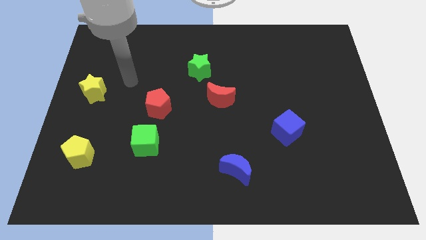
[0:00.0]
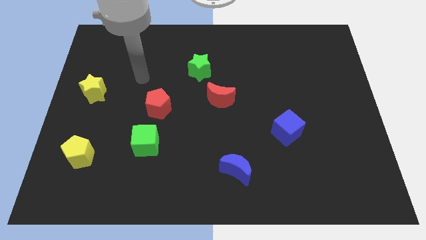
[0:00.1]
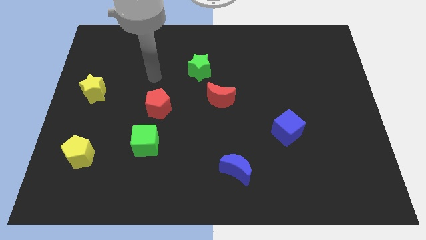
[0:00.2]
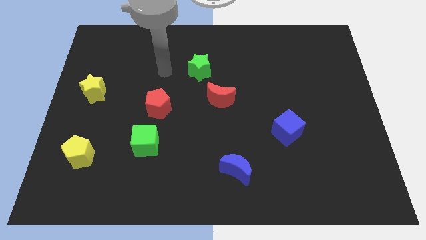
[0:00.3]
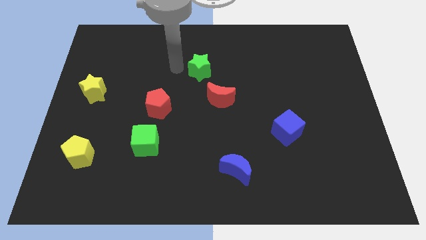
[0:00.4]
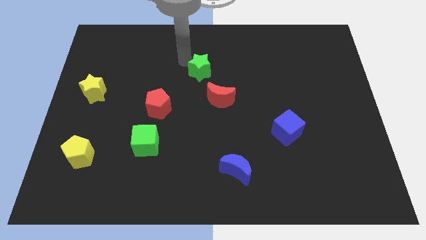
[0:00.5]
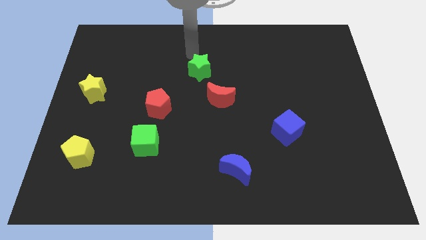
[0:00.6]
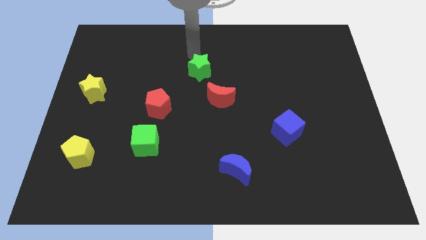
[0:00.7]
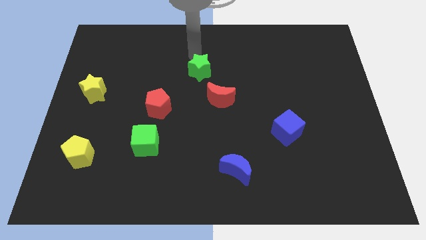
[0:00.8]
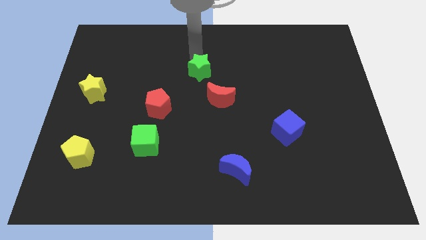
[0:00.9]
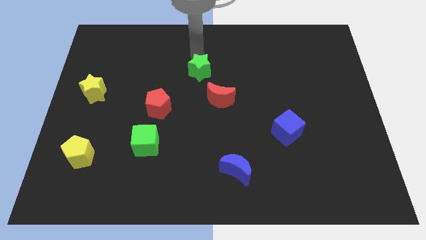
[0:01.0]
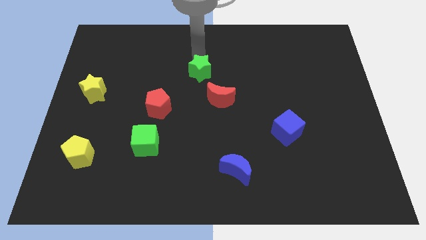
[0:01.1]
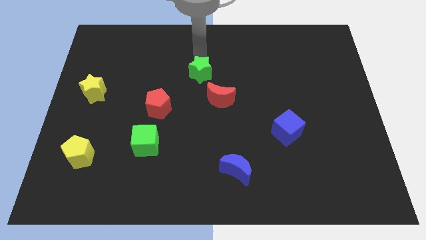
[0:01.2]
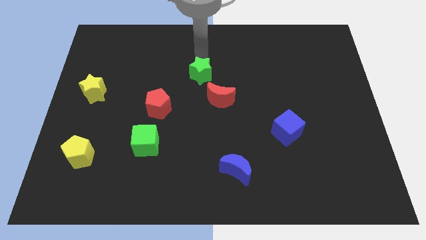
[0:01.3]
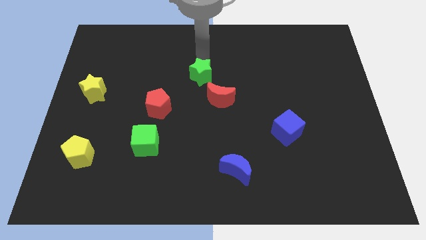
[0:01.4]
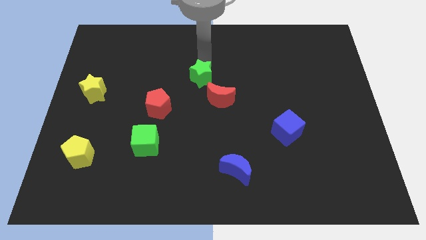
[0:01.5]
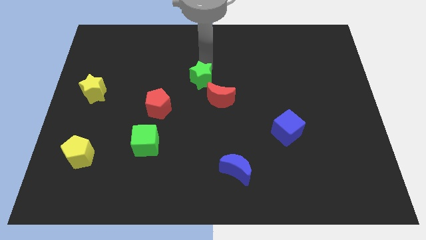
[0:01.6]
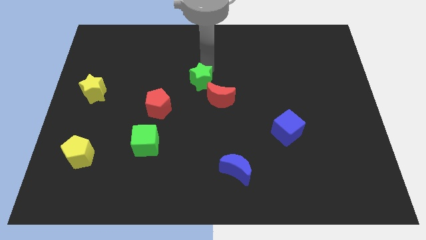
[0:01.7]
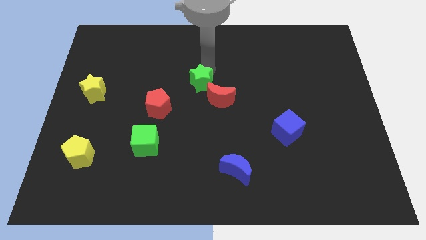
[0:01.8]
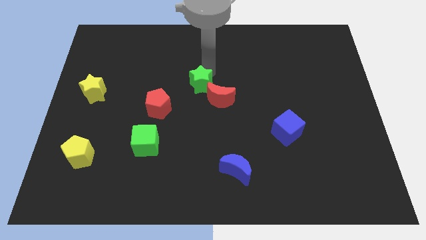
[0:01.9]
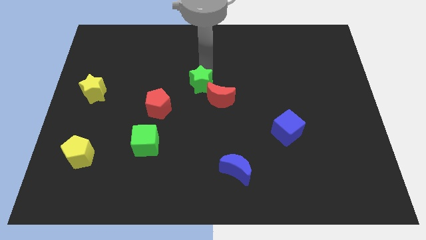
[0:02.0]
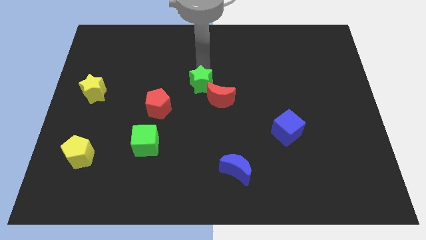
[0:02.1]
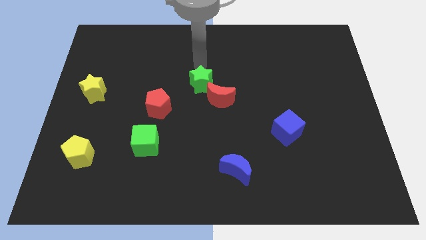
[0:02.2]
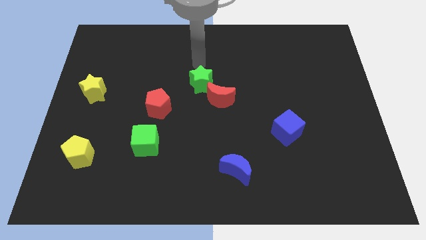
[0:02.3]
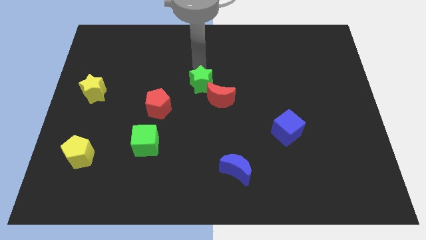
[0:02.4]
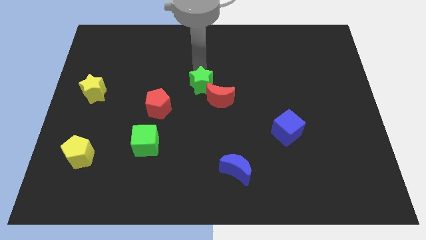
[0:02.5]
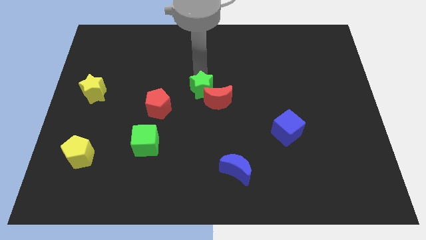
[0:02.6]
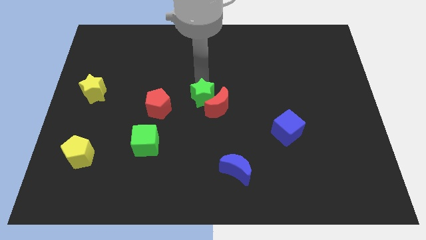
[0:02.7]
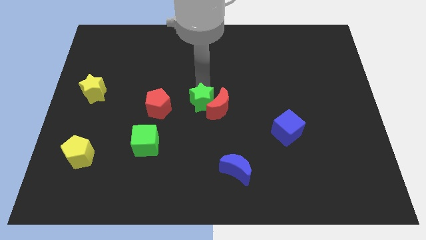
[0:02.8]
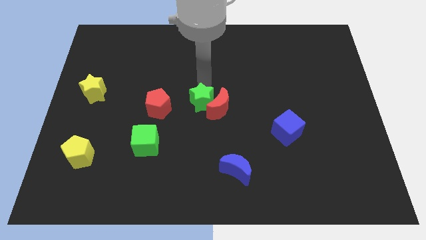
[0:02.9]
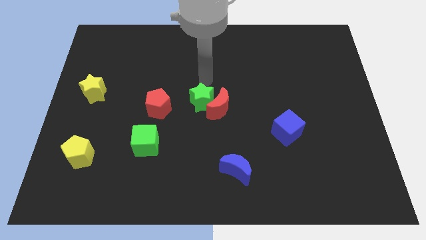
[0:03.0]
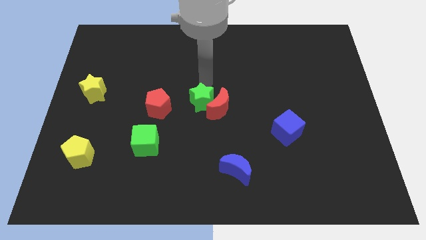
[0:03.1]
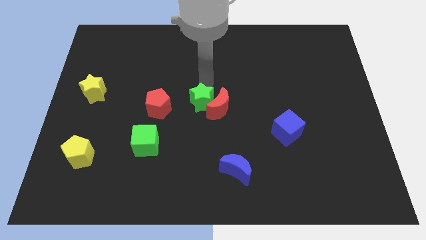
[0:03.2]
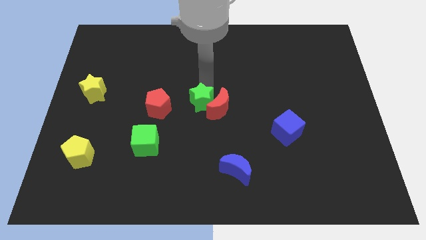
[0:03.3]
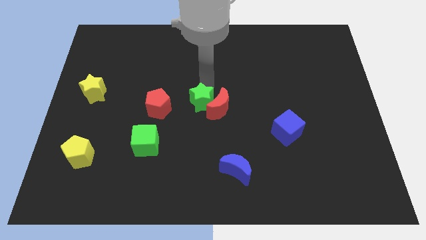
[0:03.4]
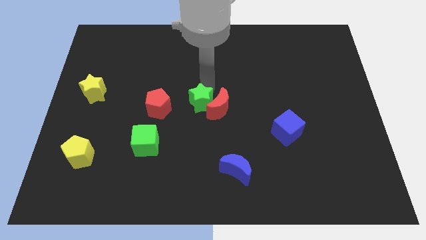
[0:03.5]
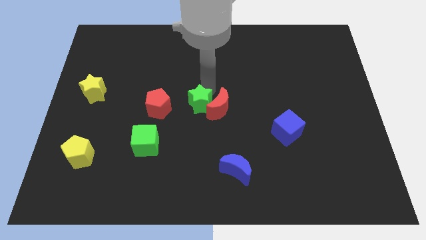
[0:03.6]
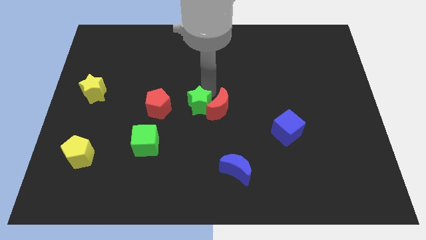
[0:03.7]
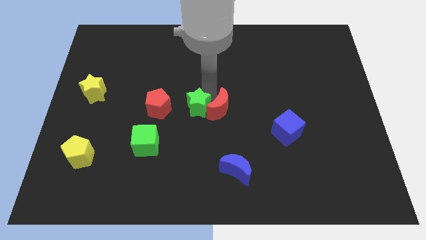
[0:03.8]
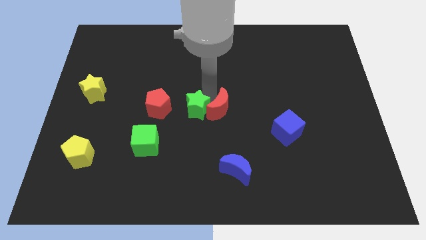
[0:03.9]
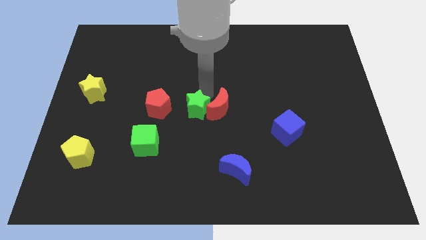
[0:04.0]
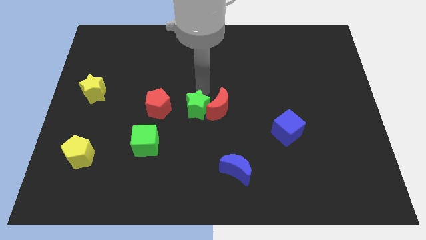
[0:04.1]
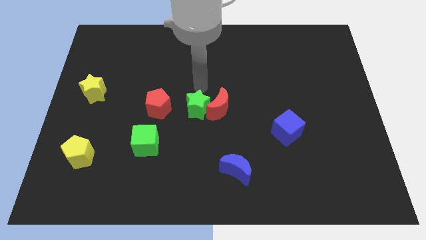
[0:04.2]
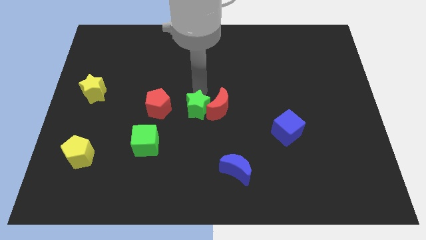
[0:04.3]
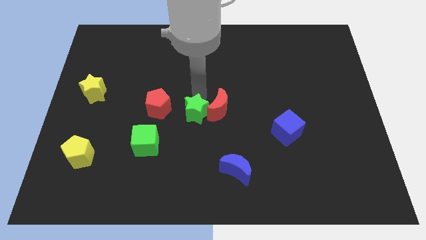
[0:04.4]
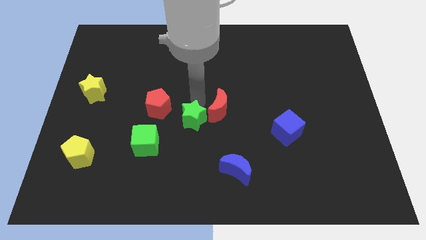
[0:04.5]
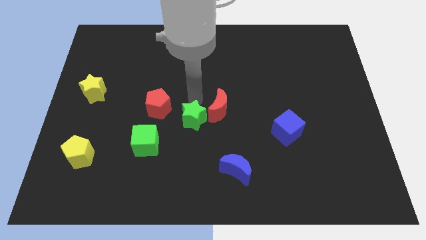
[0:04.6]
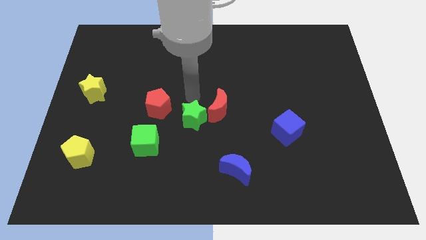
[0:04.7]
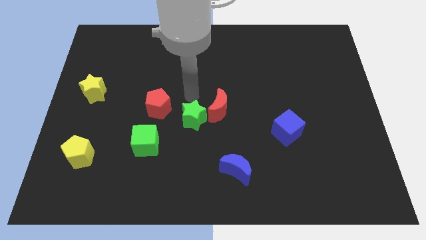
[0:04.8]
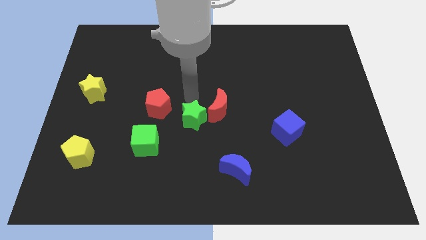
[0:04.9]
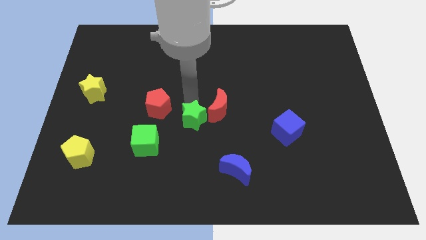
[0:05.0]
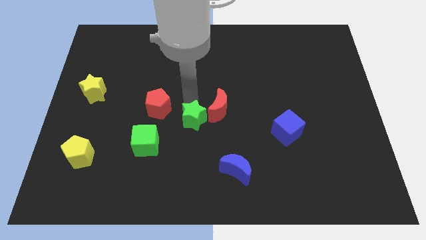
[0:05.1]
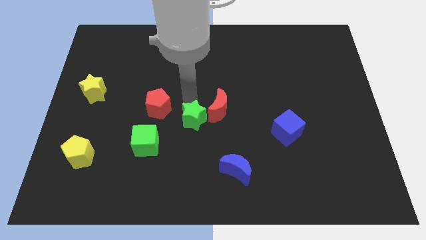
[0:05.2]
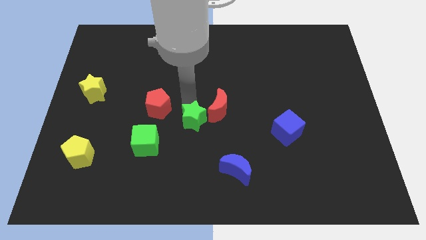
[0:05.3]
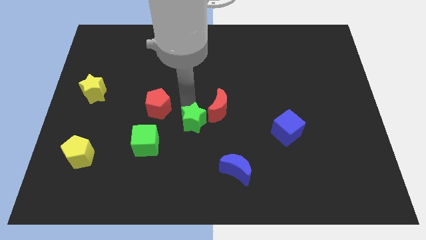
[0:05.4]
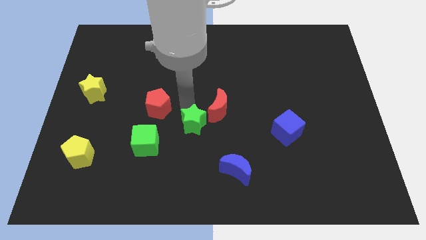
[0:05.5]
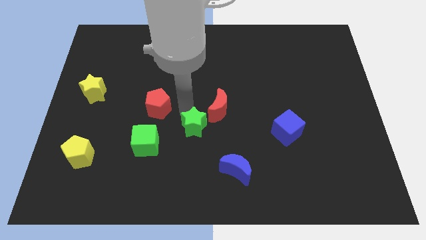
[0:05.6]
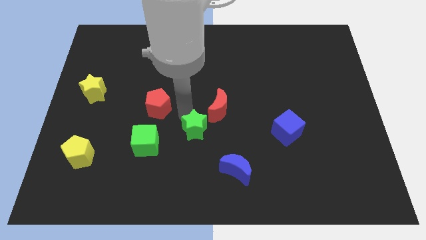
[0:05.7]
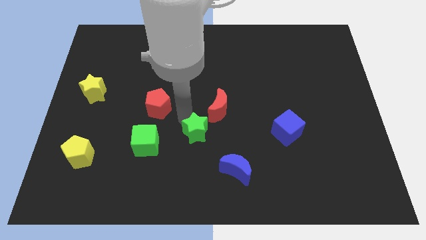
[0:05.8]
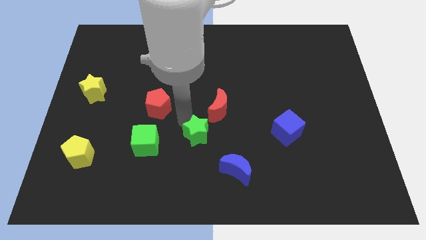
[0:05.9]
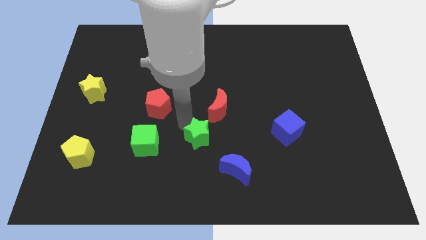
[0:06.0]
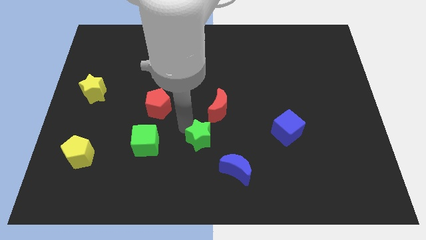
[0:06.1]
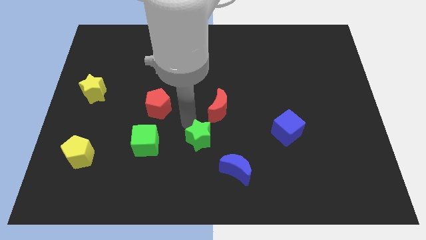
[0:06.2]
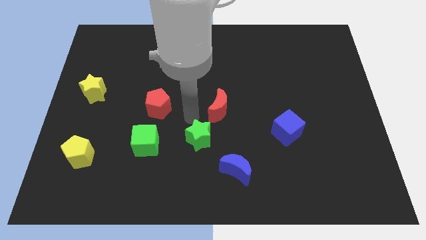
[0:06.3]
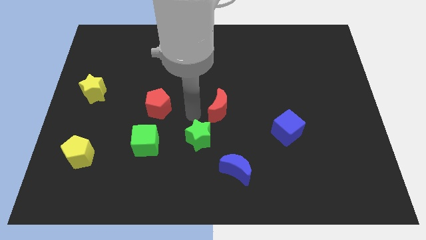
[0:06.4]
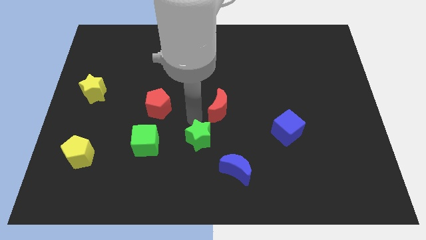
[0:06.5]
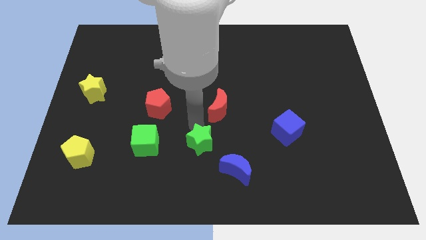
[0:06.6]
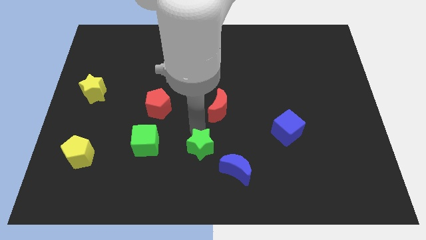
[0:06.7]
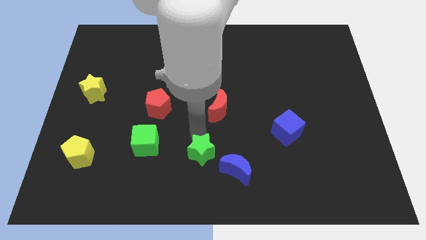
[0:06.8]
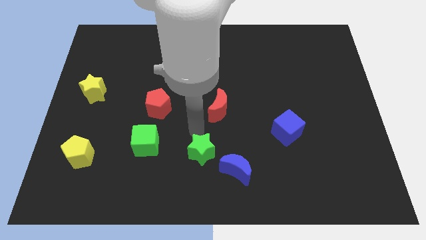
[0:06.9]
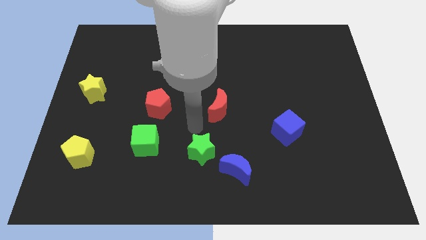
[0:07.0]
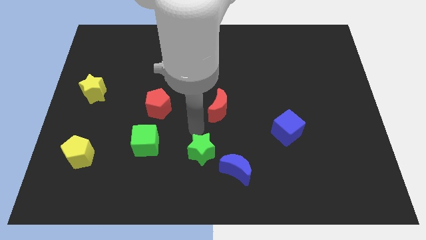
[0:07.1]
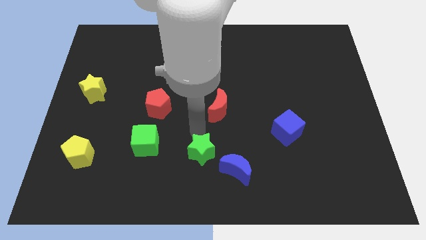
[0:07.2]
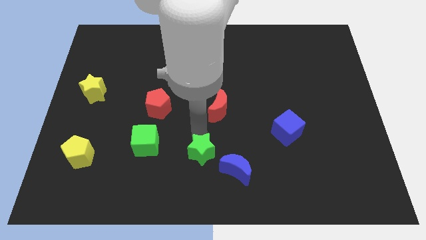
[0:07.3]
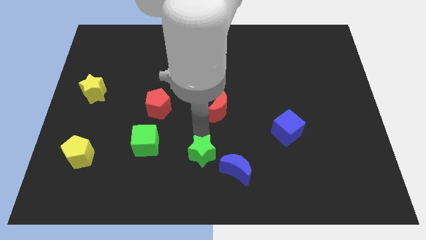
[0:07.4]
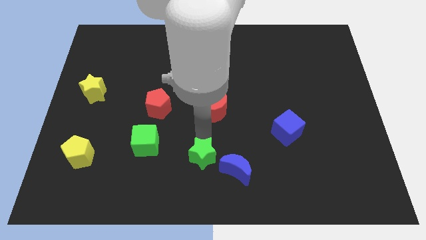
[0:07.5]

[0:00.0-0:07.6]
push the green star to the bottom
